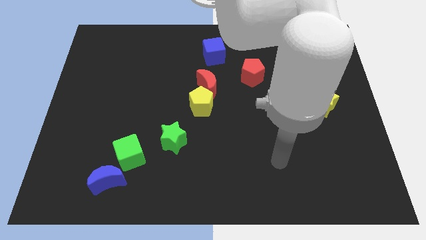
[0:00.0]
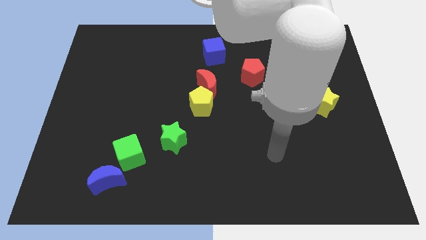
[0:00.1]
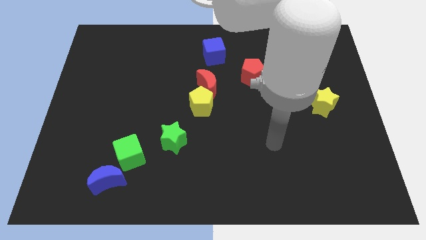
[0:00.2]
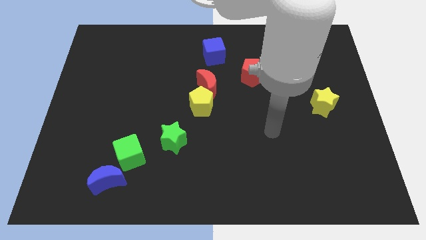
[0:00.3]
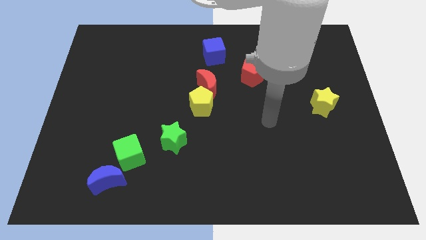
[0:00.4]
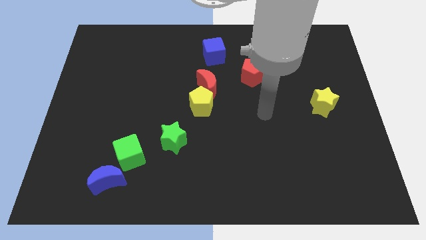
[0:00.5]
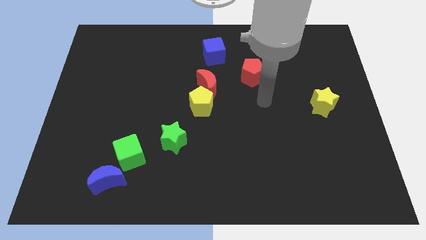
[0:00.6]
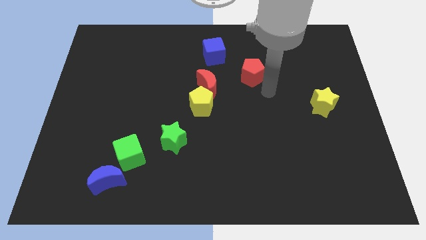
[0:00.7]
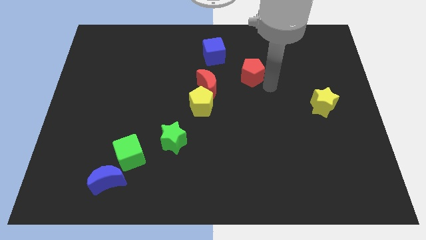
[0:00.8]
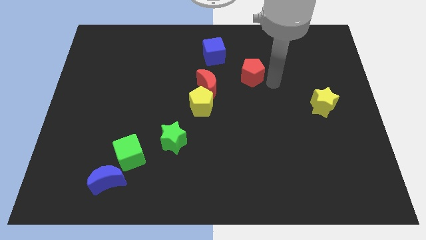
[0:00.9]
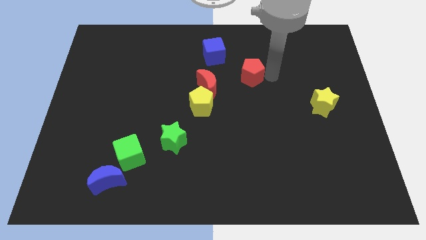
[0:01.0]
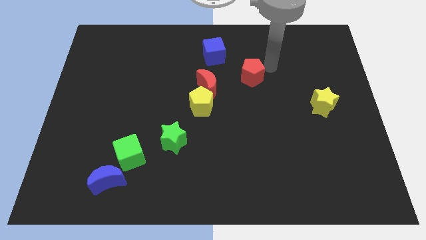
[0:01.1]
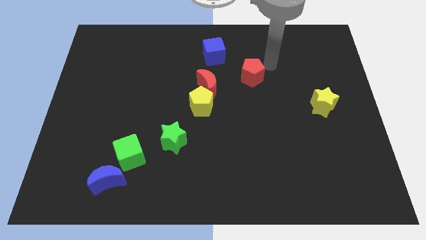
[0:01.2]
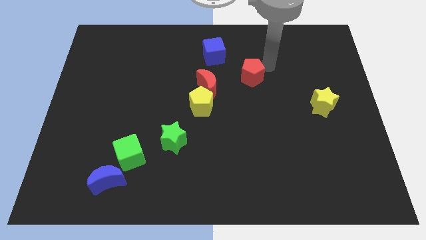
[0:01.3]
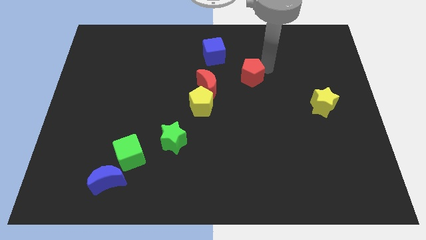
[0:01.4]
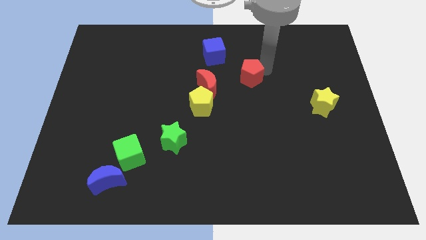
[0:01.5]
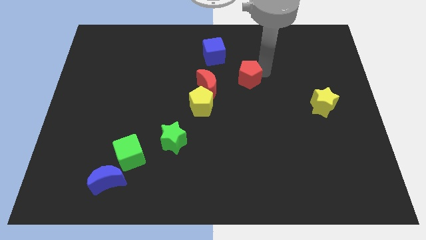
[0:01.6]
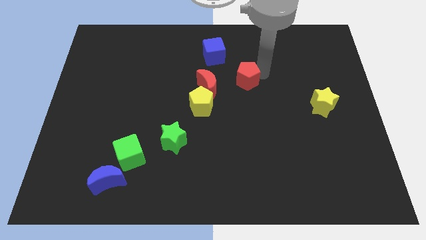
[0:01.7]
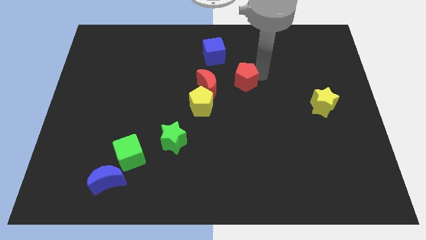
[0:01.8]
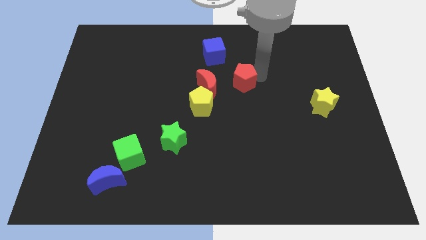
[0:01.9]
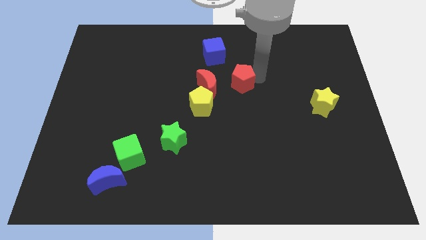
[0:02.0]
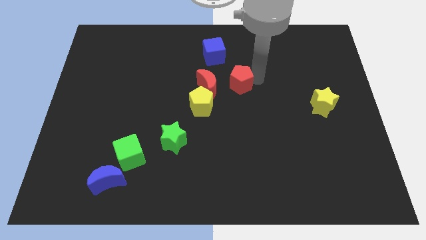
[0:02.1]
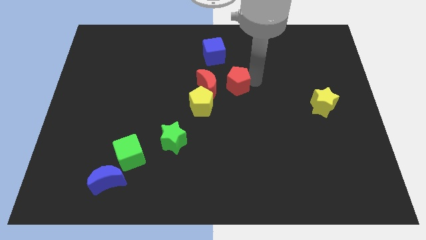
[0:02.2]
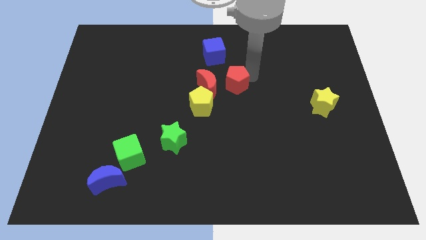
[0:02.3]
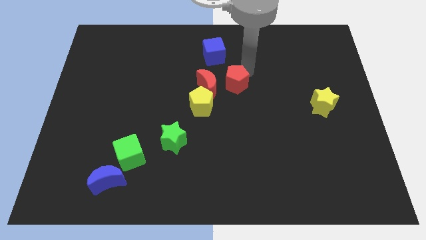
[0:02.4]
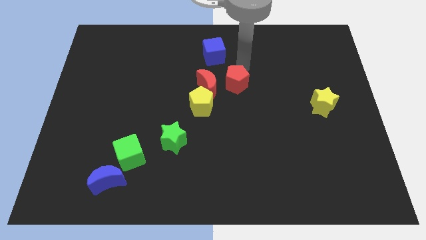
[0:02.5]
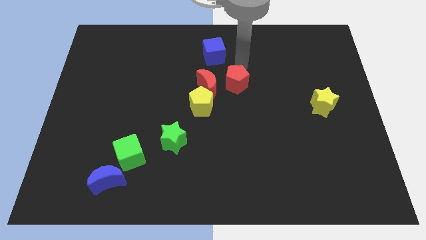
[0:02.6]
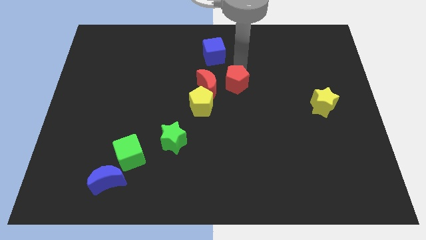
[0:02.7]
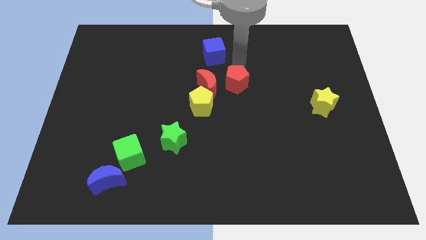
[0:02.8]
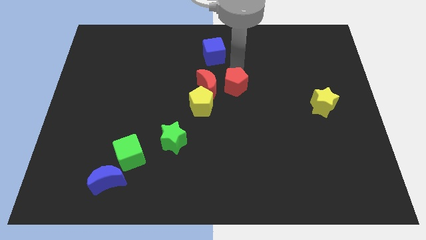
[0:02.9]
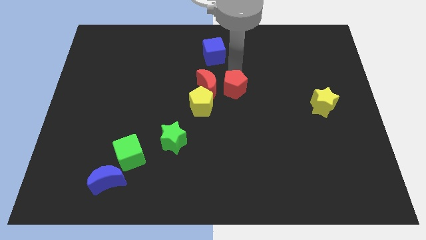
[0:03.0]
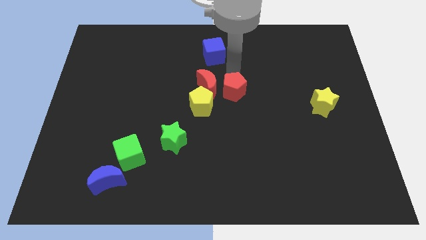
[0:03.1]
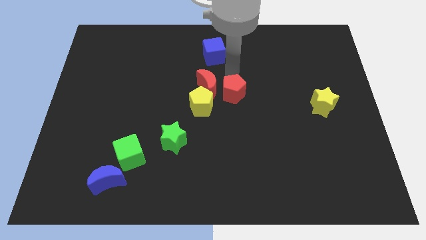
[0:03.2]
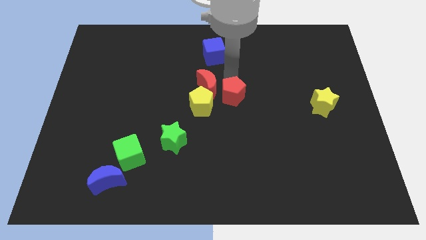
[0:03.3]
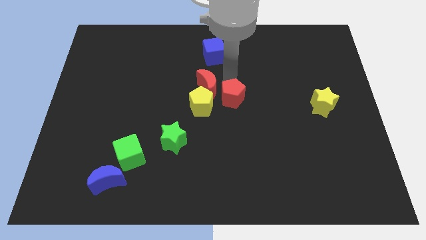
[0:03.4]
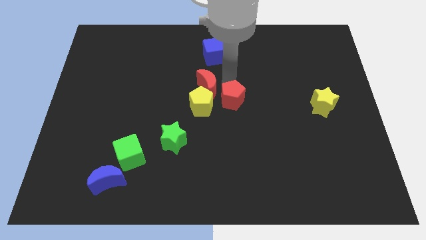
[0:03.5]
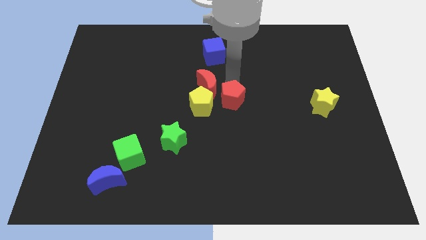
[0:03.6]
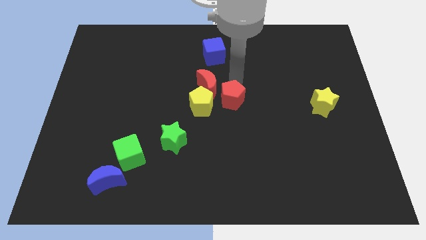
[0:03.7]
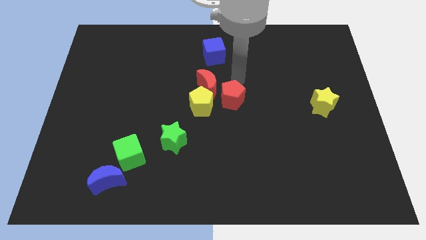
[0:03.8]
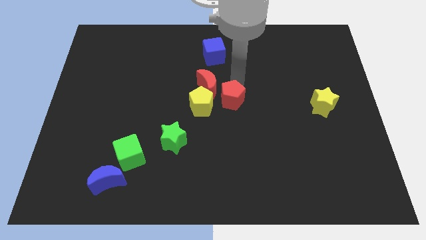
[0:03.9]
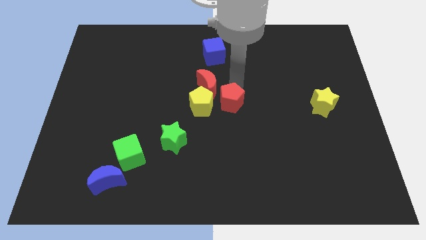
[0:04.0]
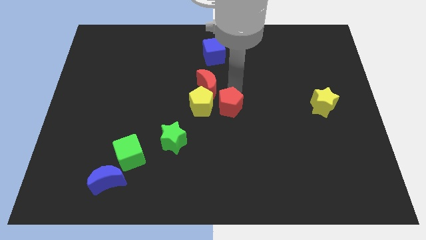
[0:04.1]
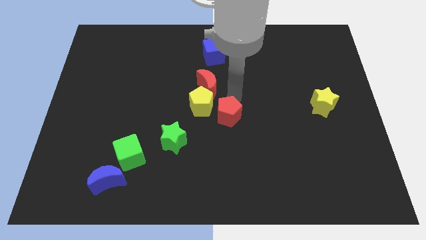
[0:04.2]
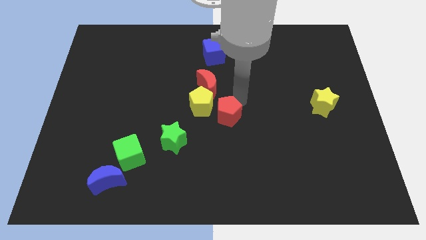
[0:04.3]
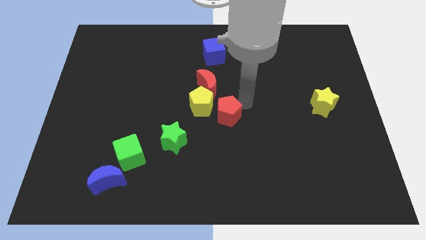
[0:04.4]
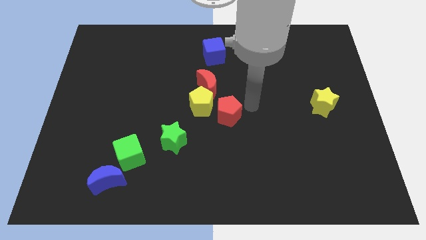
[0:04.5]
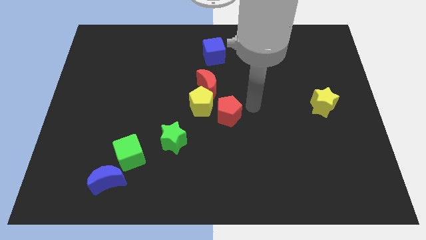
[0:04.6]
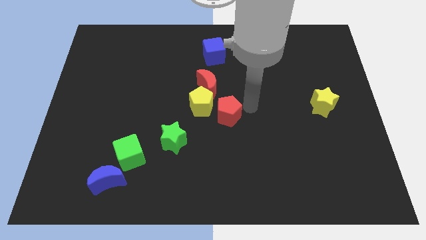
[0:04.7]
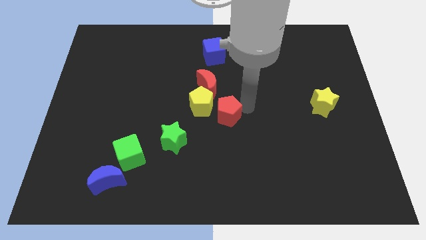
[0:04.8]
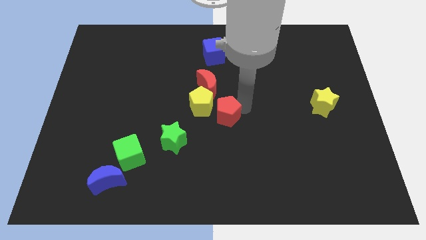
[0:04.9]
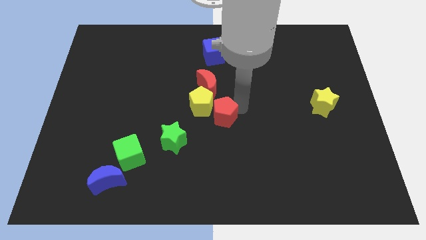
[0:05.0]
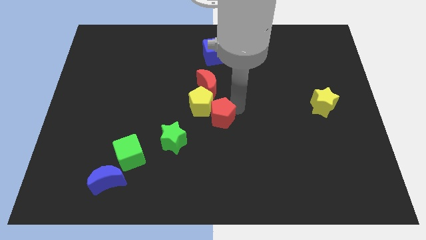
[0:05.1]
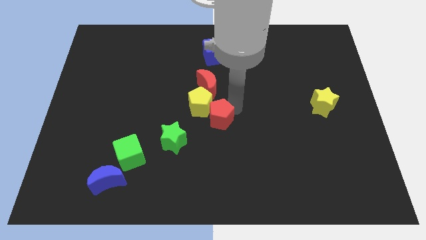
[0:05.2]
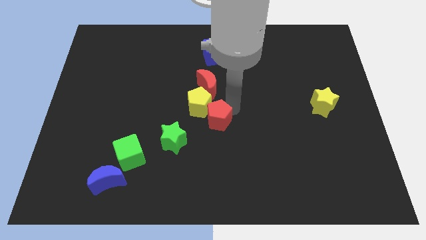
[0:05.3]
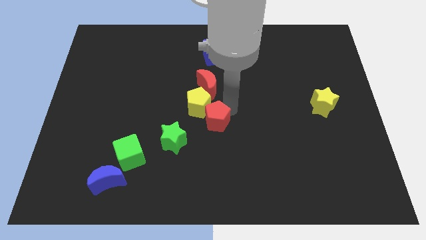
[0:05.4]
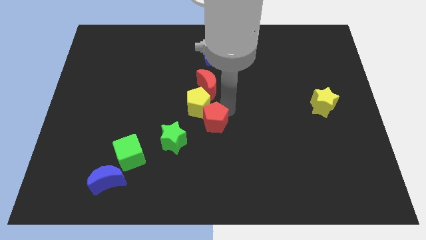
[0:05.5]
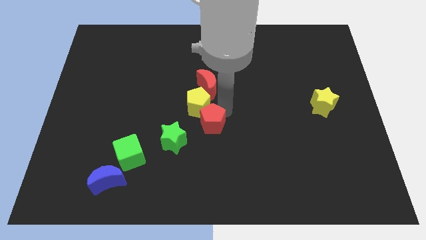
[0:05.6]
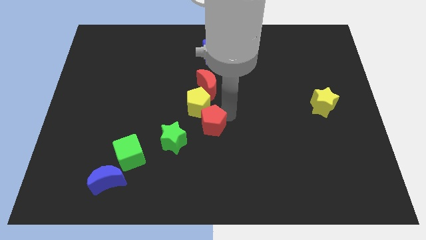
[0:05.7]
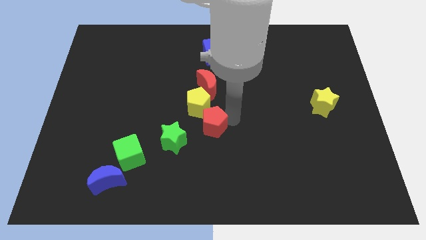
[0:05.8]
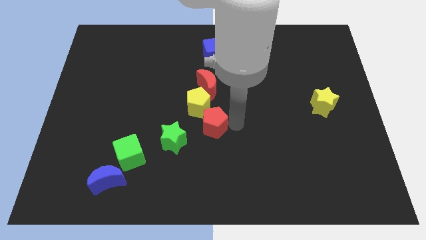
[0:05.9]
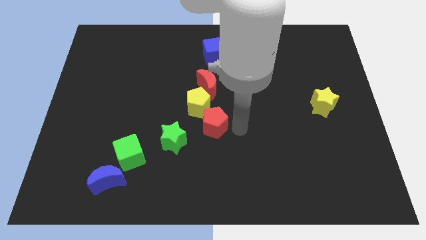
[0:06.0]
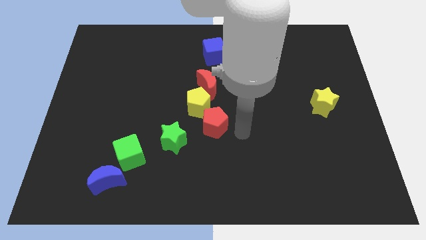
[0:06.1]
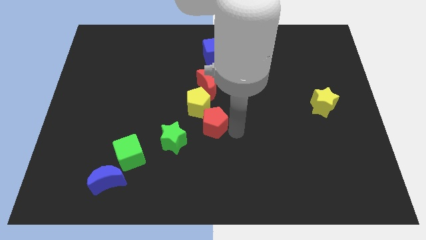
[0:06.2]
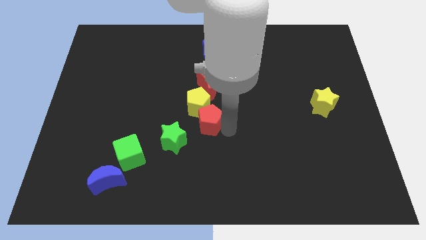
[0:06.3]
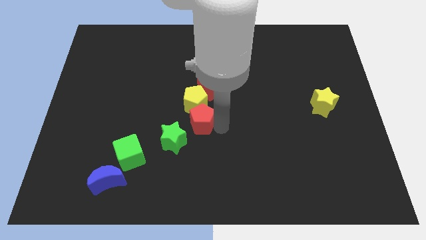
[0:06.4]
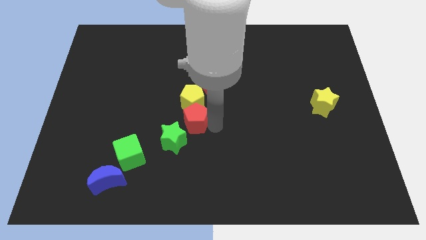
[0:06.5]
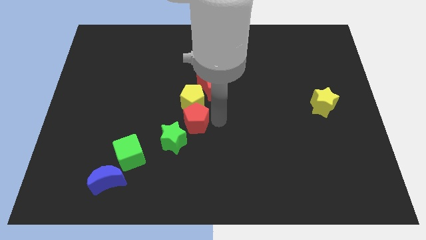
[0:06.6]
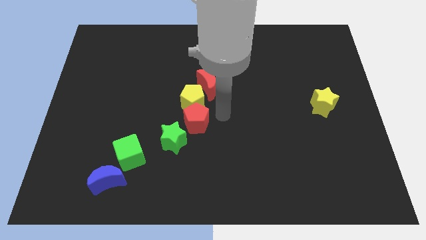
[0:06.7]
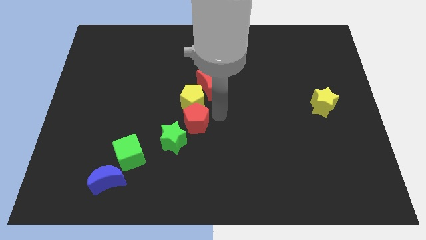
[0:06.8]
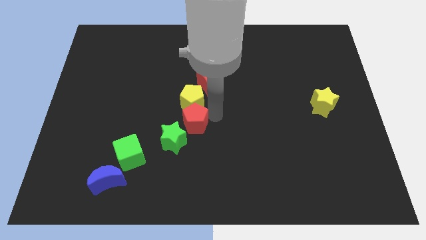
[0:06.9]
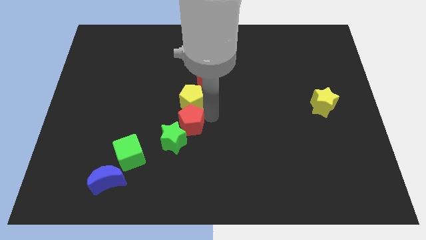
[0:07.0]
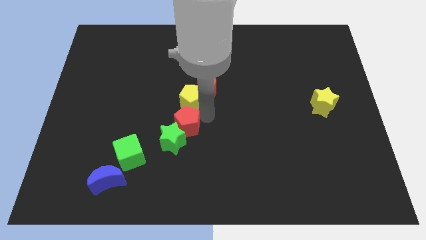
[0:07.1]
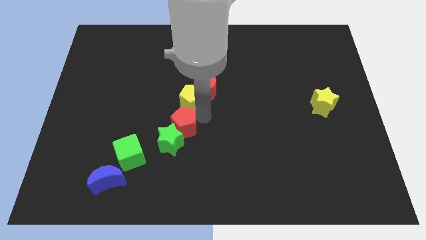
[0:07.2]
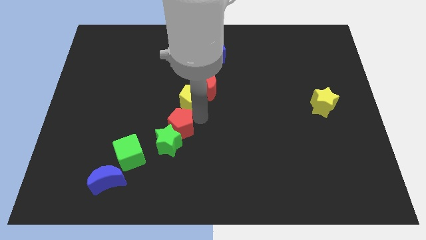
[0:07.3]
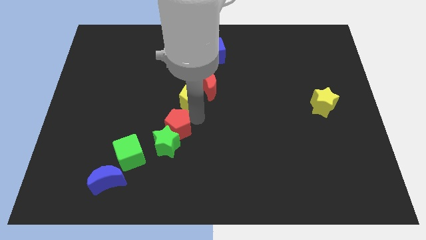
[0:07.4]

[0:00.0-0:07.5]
put the red pentagon to the top right side of the green cube
